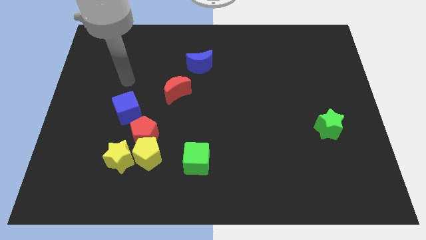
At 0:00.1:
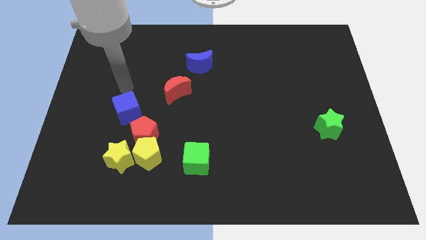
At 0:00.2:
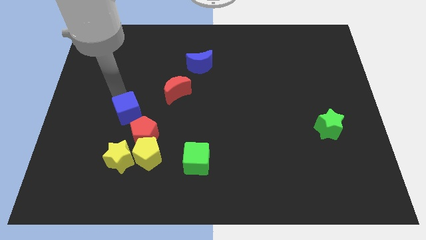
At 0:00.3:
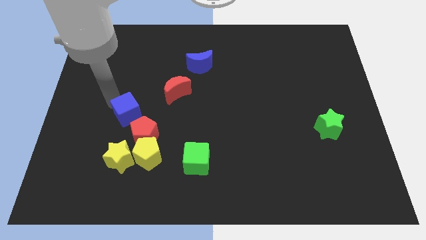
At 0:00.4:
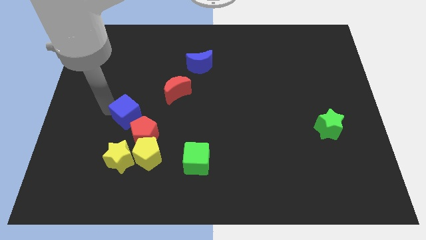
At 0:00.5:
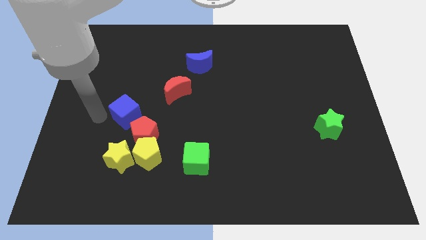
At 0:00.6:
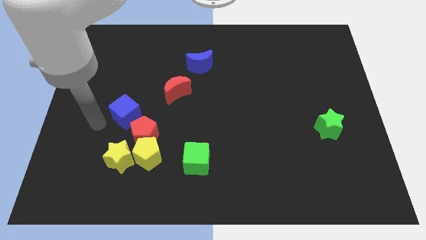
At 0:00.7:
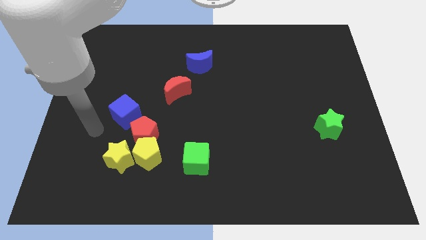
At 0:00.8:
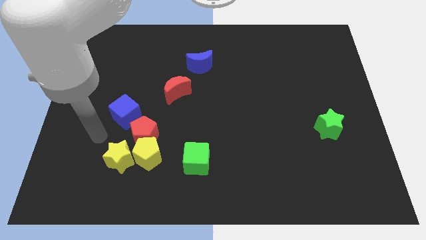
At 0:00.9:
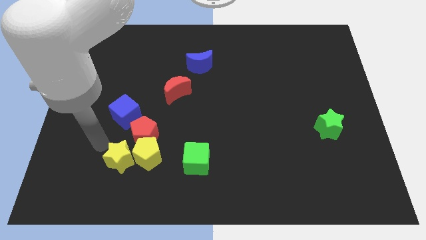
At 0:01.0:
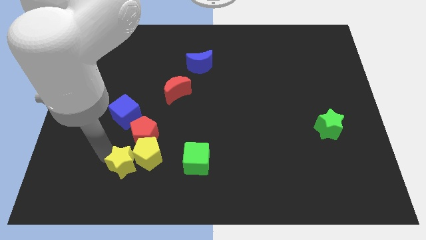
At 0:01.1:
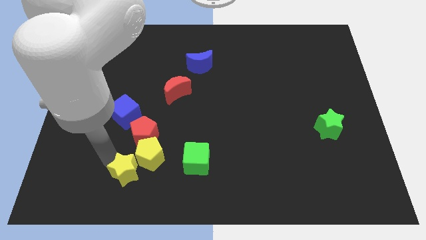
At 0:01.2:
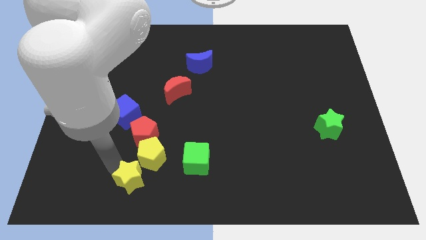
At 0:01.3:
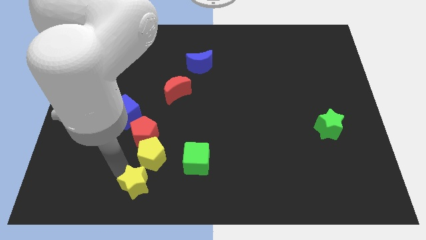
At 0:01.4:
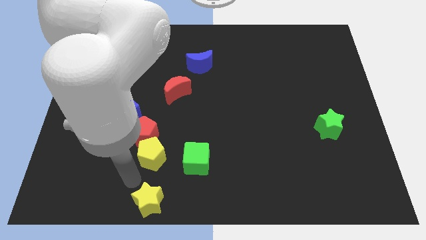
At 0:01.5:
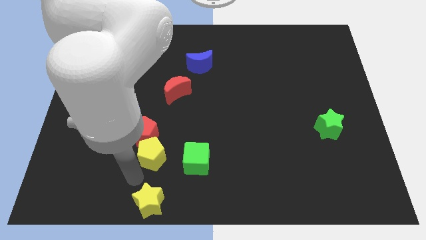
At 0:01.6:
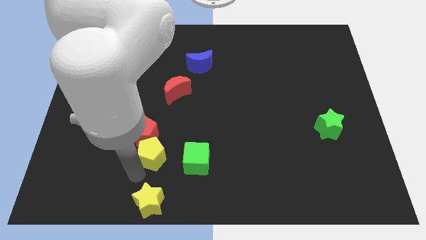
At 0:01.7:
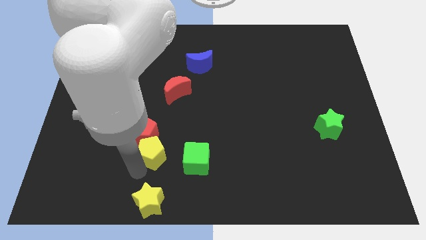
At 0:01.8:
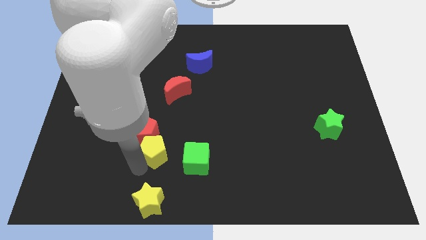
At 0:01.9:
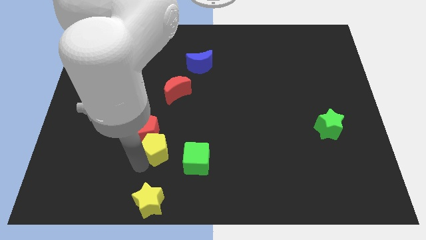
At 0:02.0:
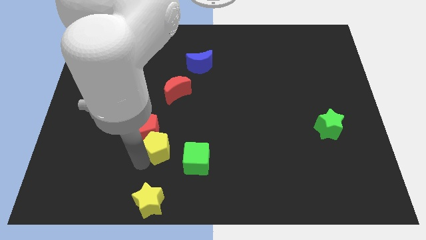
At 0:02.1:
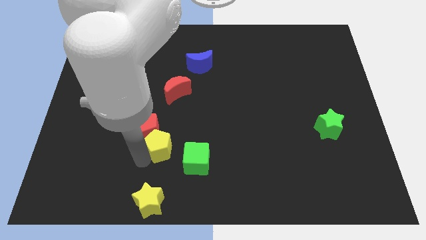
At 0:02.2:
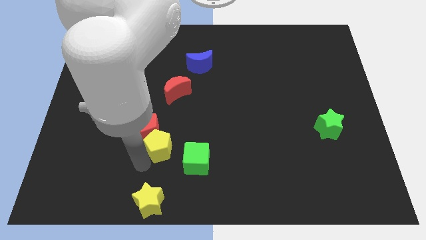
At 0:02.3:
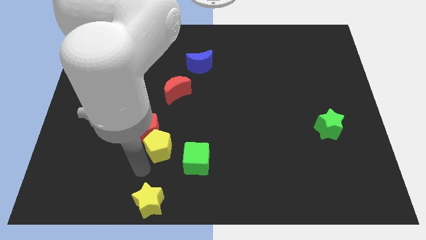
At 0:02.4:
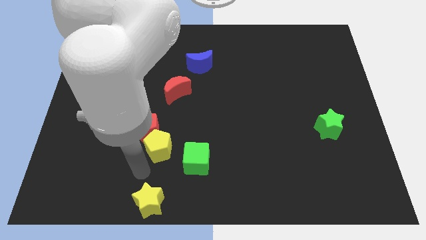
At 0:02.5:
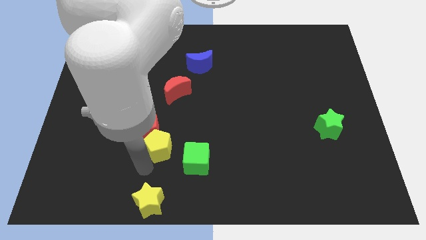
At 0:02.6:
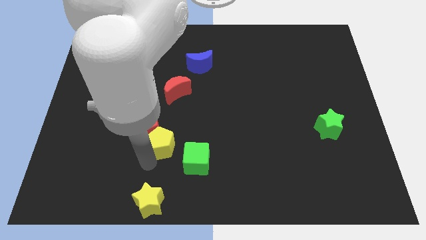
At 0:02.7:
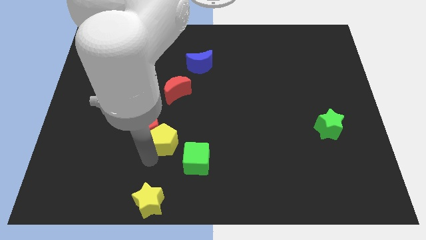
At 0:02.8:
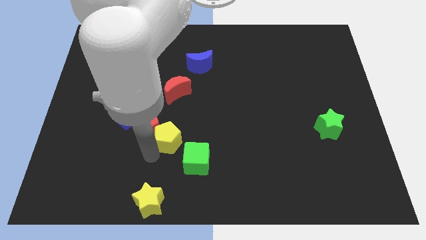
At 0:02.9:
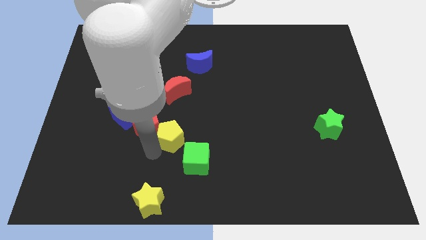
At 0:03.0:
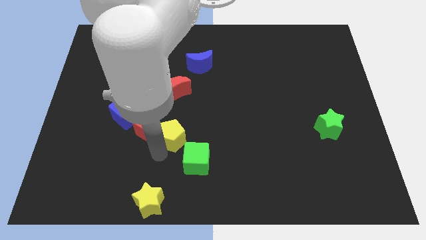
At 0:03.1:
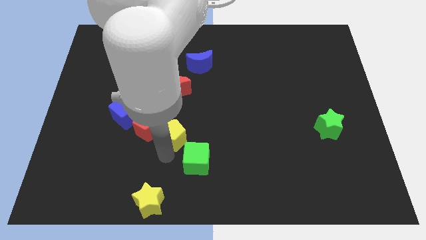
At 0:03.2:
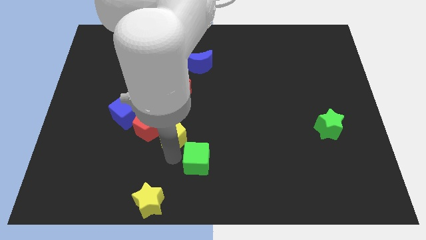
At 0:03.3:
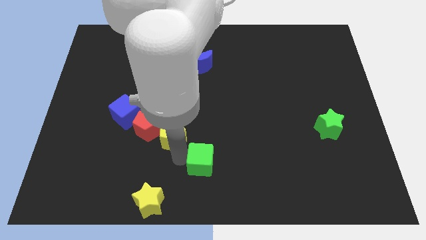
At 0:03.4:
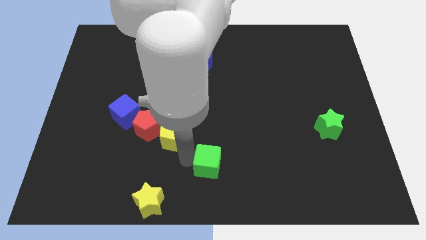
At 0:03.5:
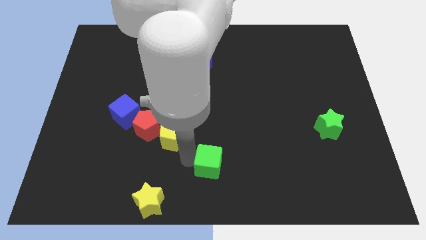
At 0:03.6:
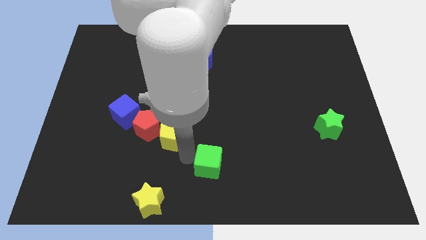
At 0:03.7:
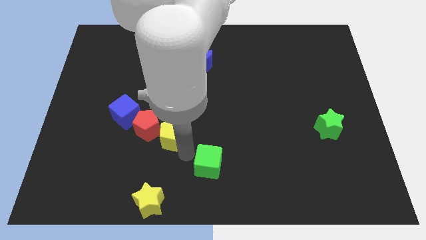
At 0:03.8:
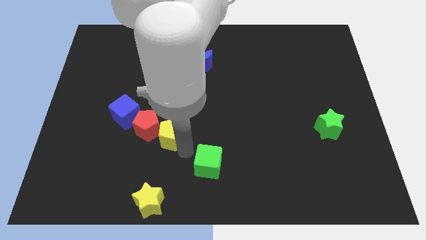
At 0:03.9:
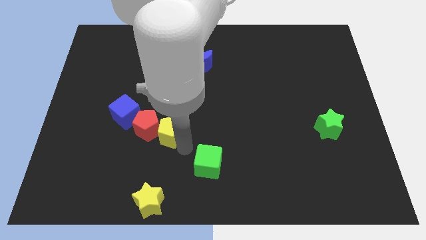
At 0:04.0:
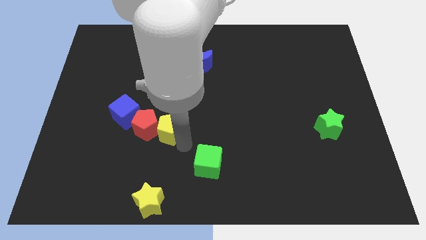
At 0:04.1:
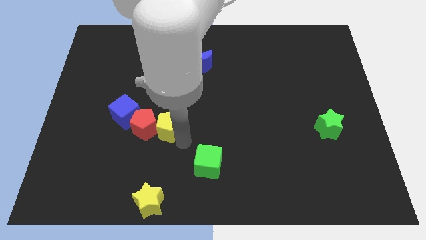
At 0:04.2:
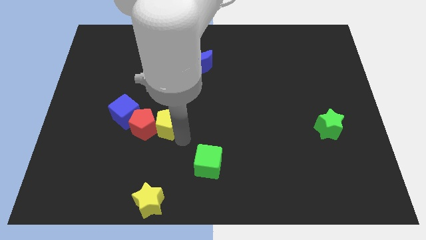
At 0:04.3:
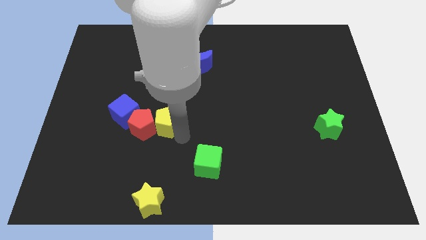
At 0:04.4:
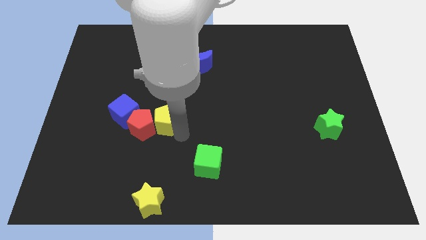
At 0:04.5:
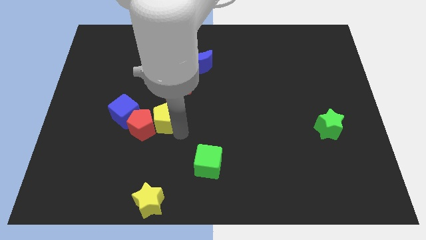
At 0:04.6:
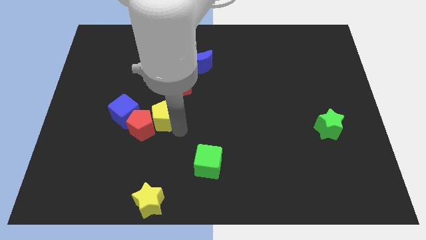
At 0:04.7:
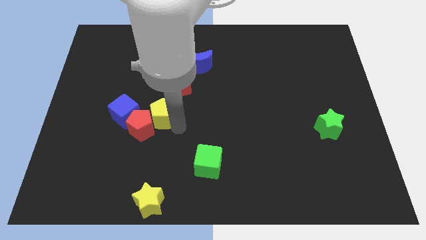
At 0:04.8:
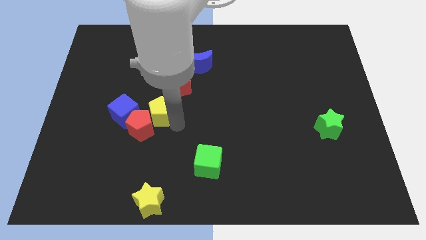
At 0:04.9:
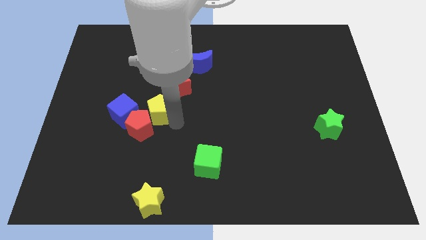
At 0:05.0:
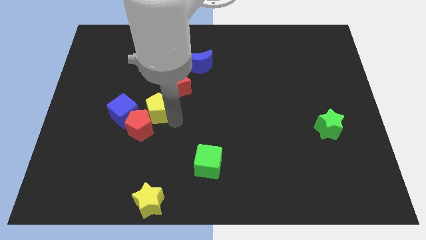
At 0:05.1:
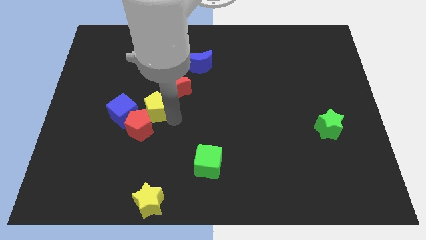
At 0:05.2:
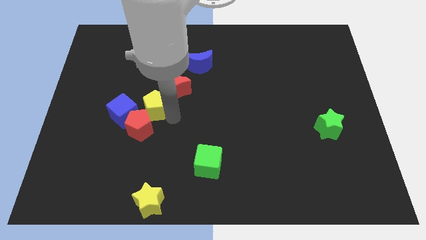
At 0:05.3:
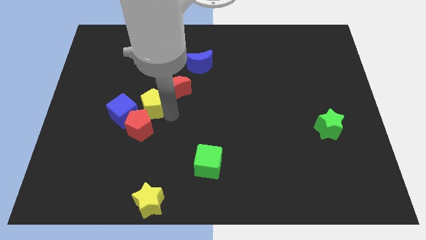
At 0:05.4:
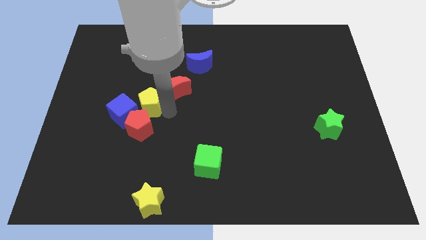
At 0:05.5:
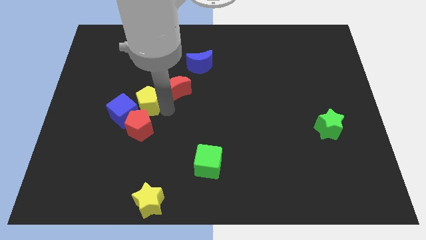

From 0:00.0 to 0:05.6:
move the yellow pentagon upwards and to the left diagonally a little bit

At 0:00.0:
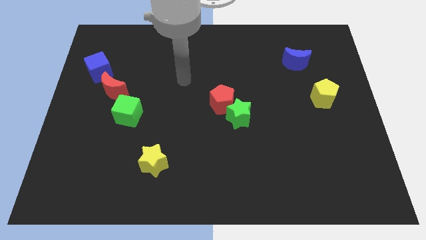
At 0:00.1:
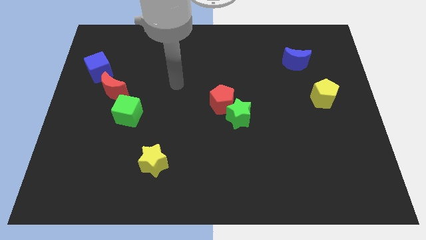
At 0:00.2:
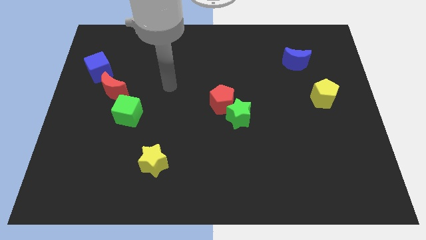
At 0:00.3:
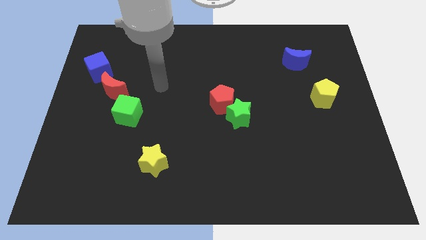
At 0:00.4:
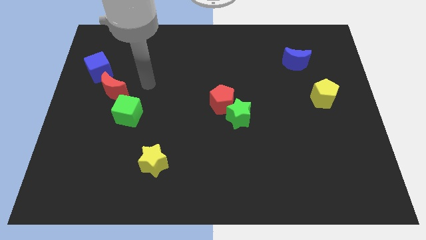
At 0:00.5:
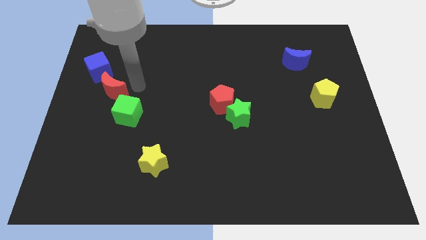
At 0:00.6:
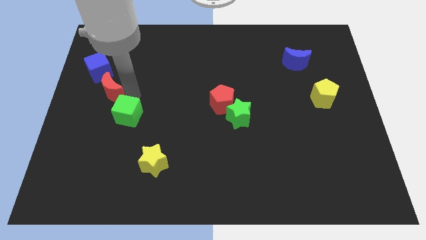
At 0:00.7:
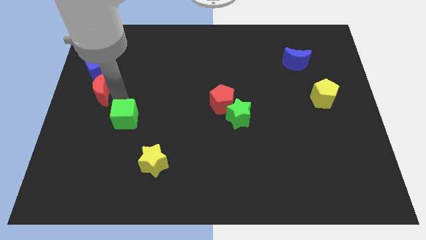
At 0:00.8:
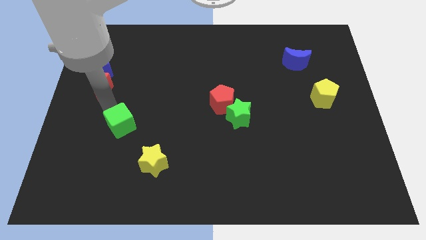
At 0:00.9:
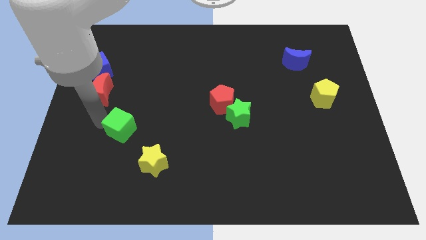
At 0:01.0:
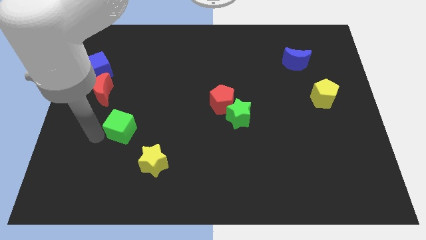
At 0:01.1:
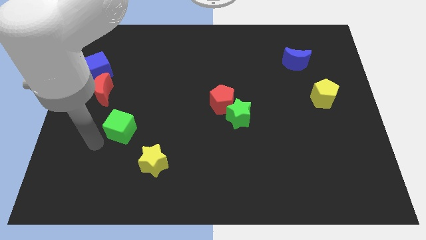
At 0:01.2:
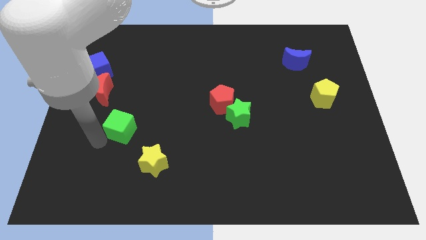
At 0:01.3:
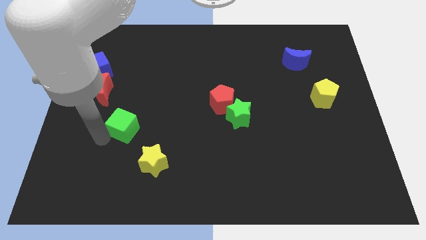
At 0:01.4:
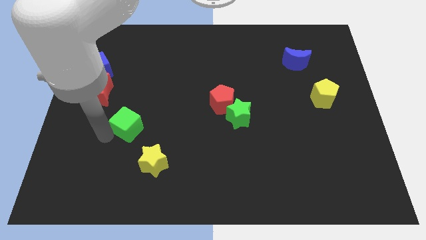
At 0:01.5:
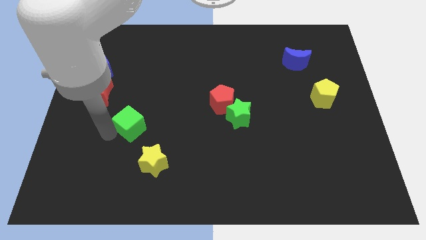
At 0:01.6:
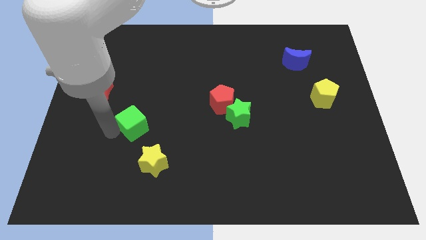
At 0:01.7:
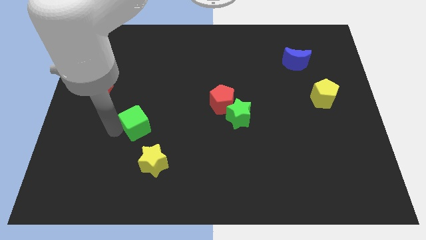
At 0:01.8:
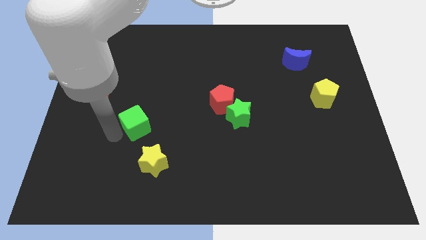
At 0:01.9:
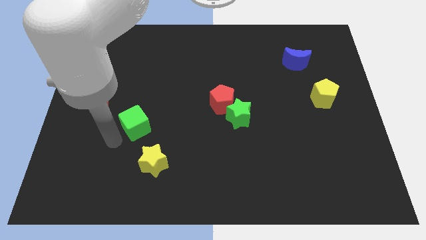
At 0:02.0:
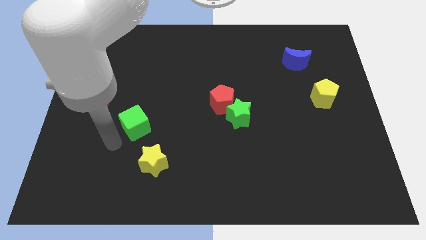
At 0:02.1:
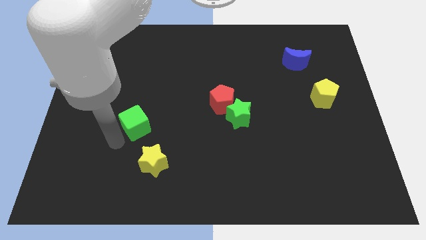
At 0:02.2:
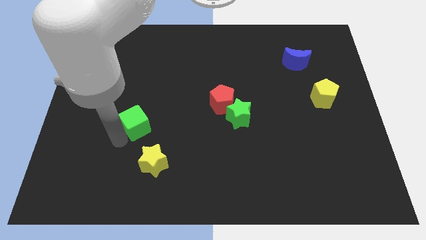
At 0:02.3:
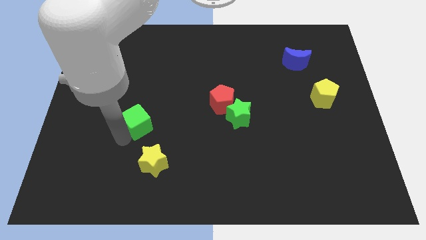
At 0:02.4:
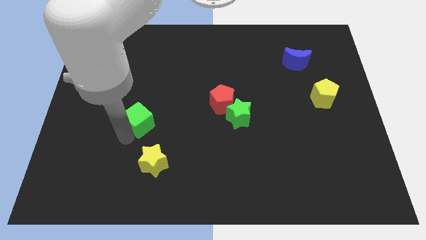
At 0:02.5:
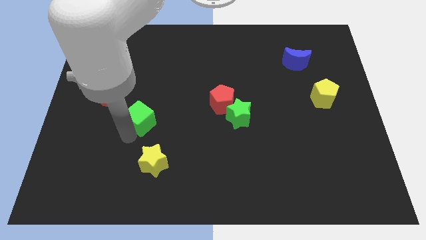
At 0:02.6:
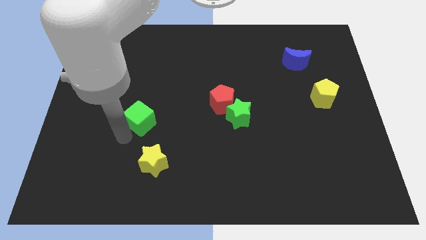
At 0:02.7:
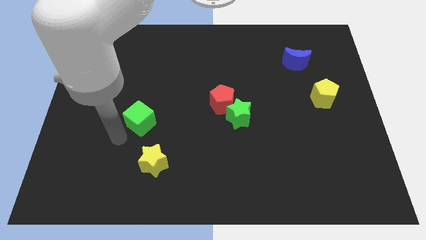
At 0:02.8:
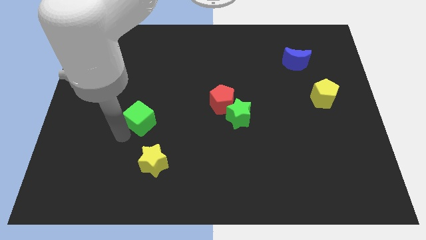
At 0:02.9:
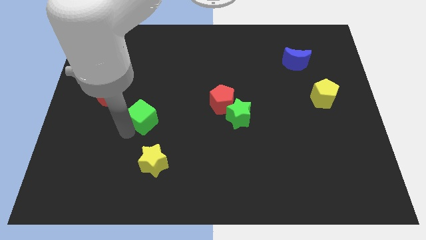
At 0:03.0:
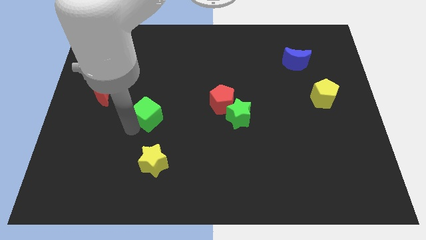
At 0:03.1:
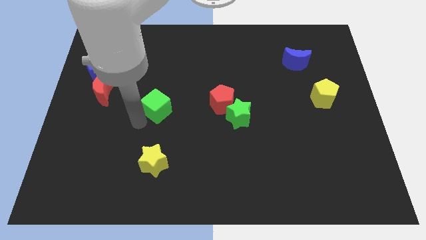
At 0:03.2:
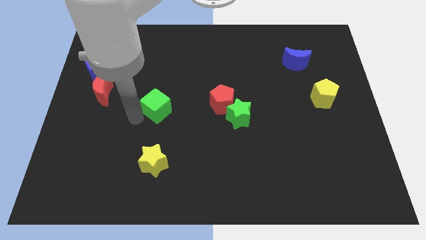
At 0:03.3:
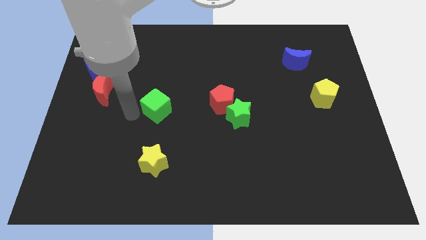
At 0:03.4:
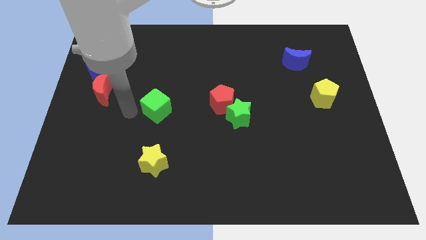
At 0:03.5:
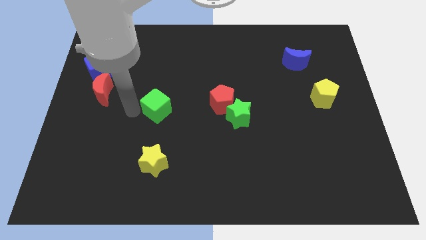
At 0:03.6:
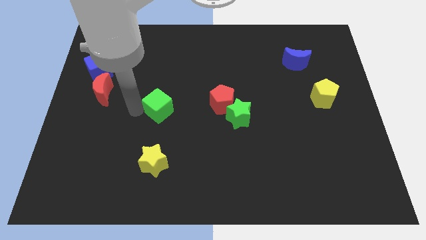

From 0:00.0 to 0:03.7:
move the green cube to the right somewhat
